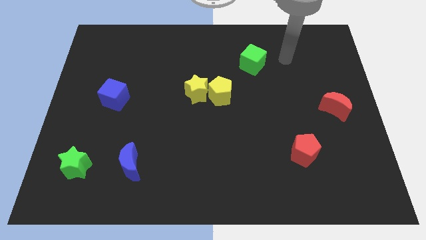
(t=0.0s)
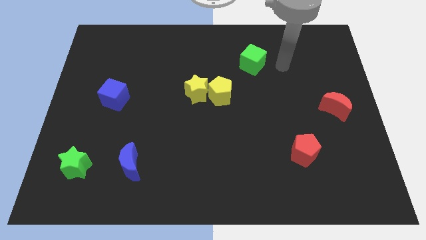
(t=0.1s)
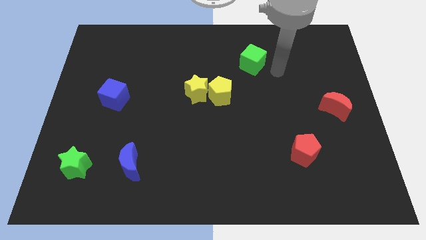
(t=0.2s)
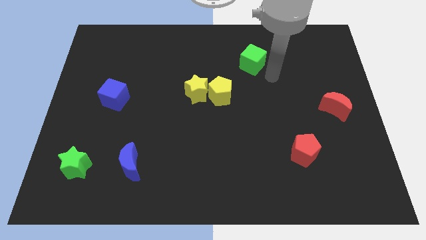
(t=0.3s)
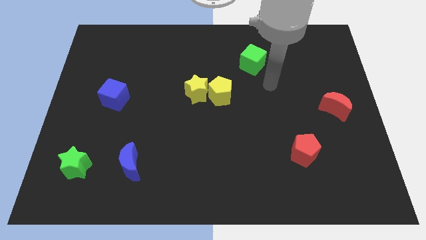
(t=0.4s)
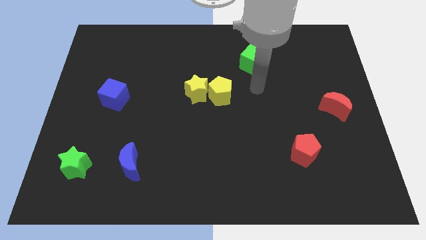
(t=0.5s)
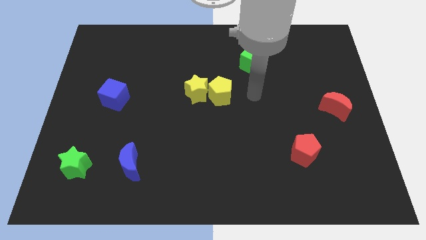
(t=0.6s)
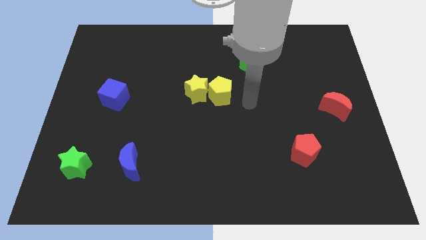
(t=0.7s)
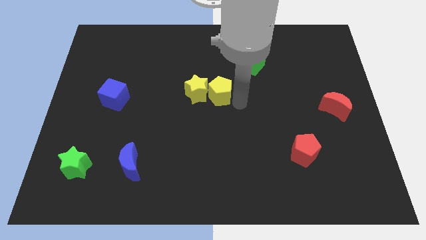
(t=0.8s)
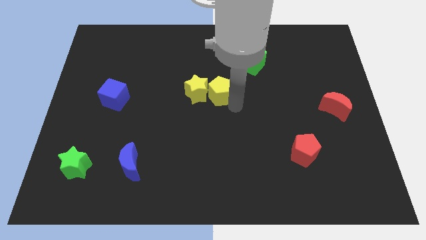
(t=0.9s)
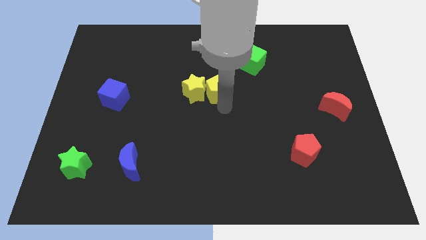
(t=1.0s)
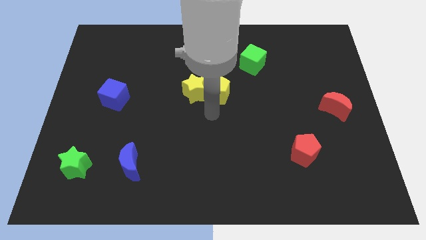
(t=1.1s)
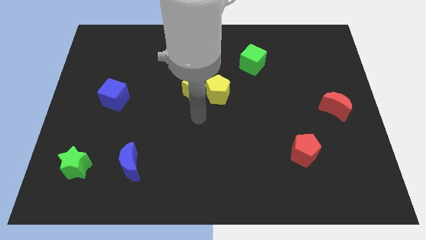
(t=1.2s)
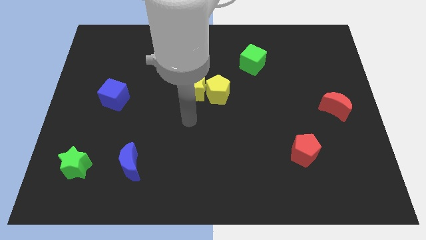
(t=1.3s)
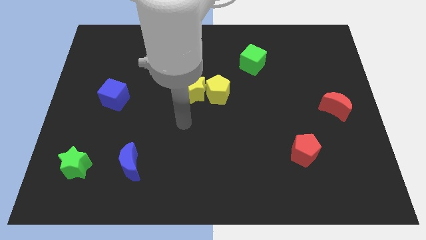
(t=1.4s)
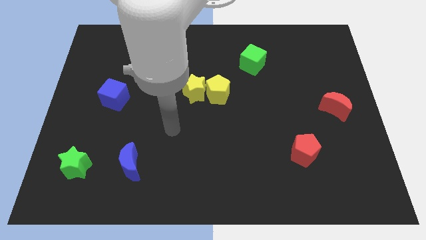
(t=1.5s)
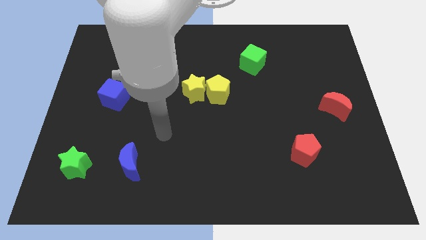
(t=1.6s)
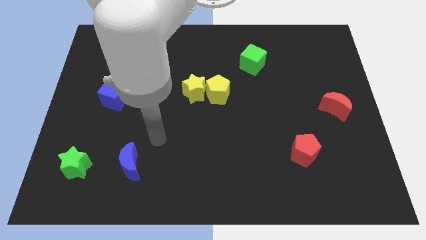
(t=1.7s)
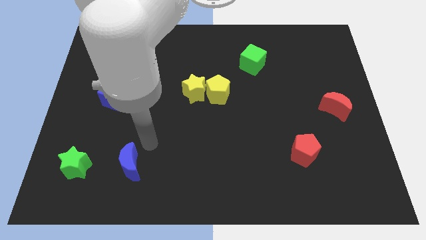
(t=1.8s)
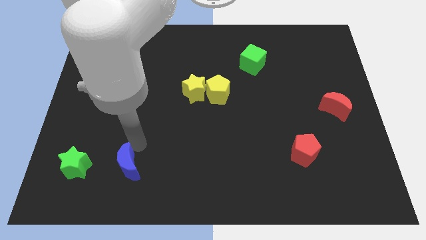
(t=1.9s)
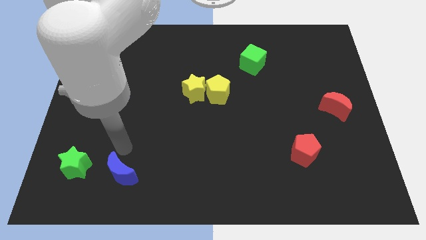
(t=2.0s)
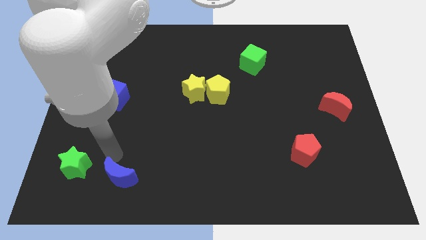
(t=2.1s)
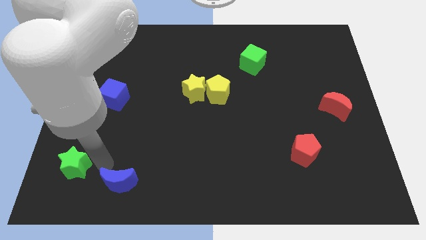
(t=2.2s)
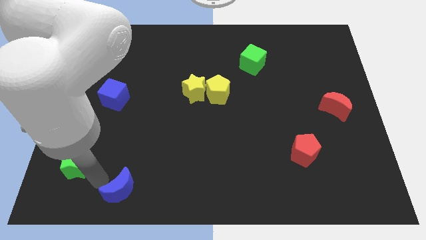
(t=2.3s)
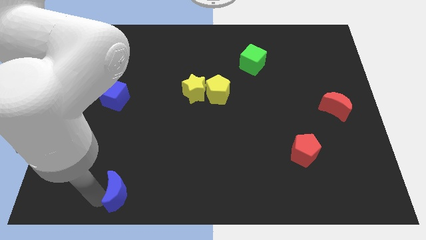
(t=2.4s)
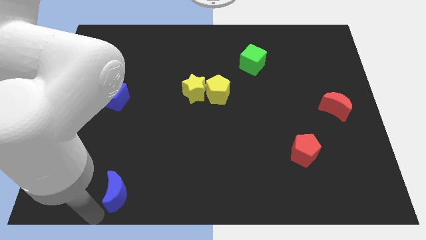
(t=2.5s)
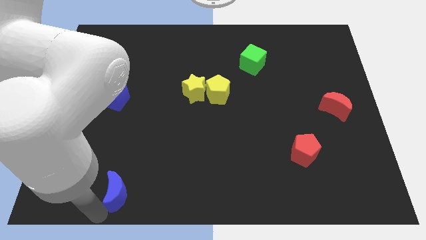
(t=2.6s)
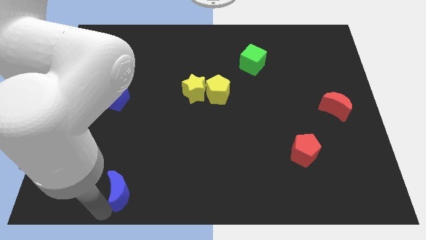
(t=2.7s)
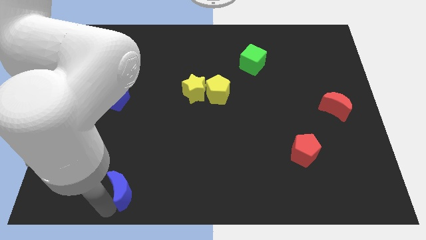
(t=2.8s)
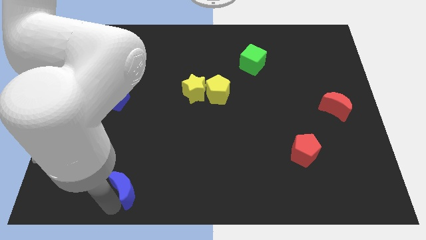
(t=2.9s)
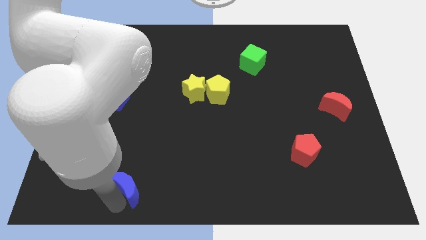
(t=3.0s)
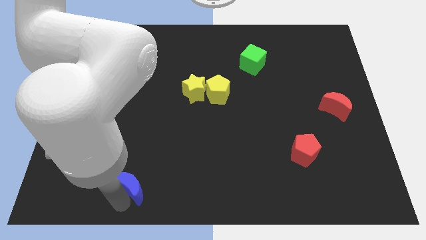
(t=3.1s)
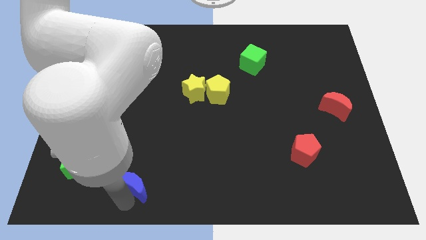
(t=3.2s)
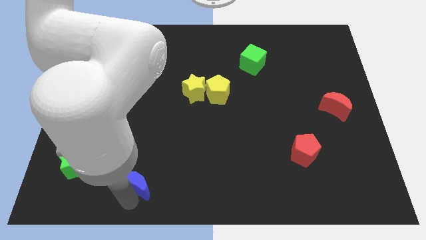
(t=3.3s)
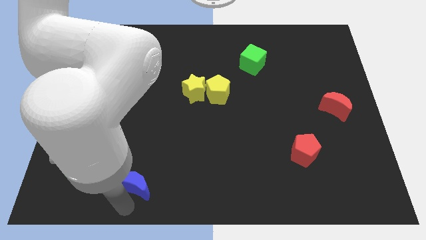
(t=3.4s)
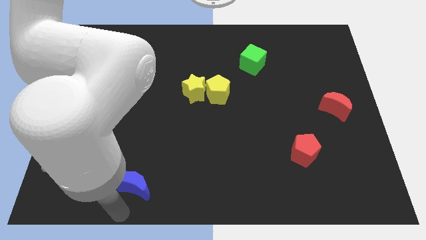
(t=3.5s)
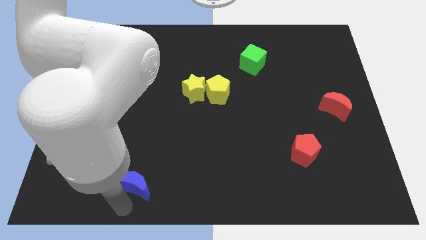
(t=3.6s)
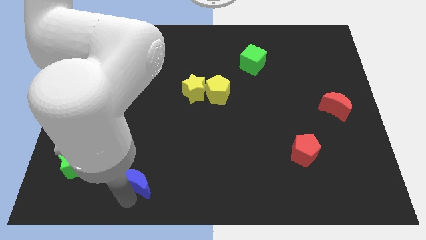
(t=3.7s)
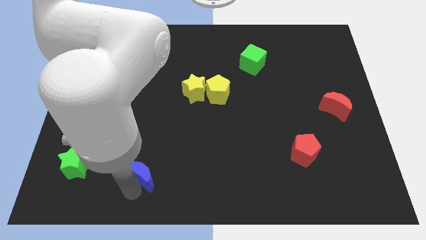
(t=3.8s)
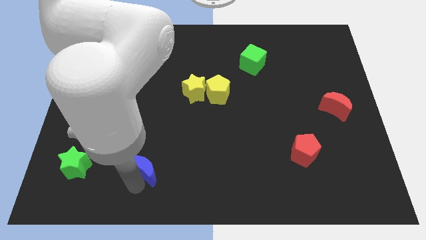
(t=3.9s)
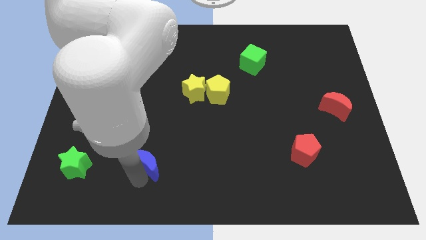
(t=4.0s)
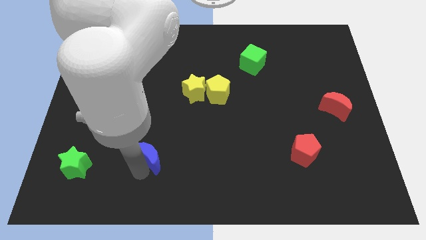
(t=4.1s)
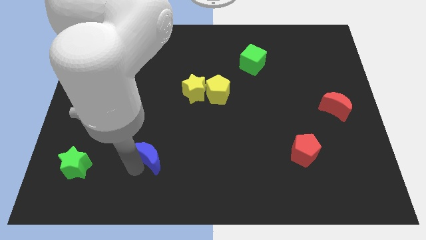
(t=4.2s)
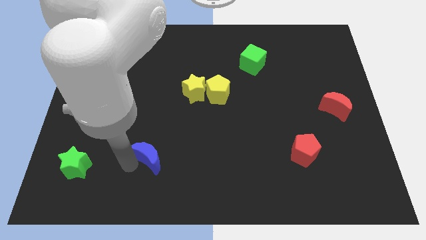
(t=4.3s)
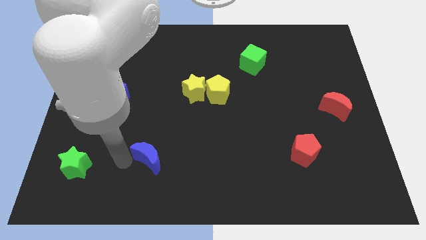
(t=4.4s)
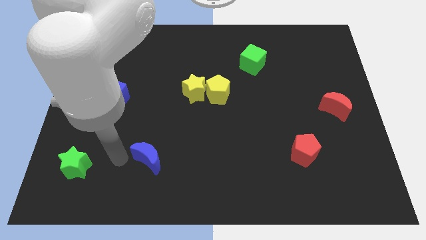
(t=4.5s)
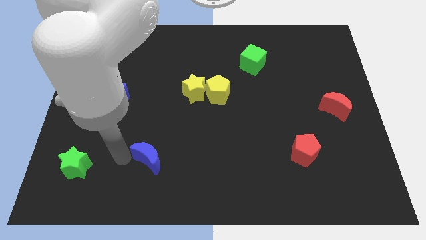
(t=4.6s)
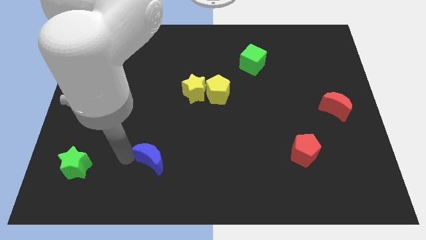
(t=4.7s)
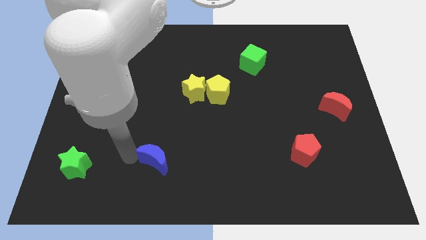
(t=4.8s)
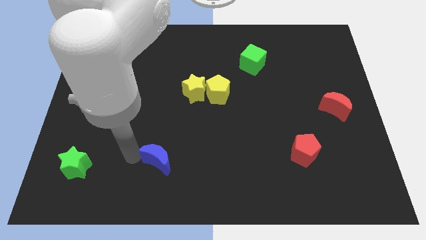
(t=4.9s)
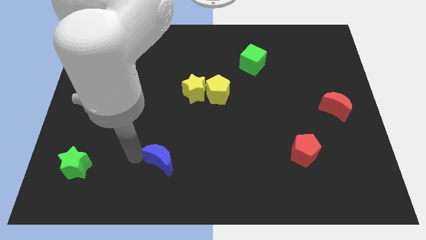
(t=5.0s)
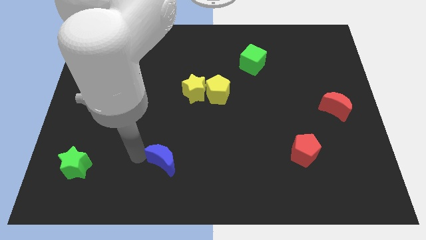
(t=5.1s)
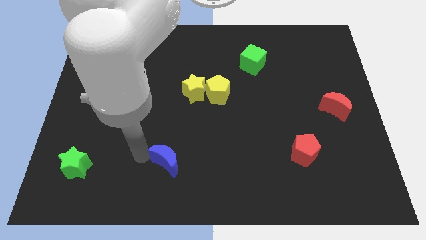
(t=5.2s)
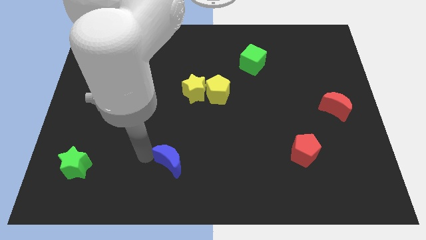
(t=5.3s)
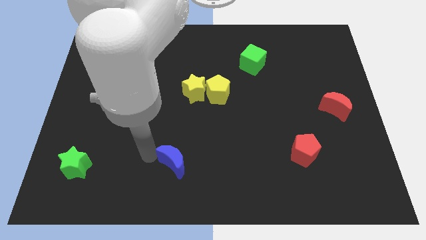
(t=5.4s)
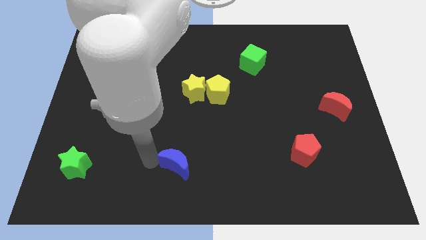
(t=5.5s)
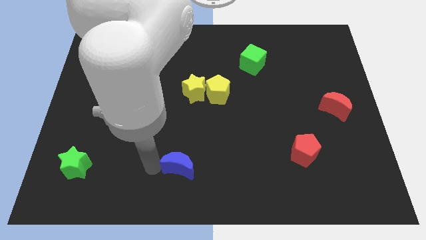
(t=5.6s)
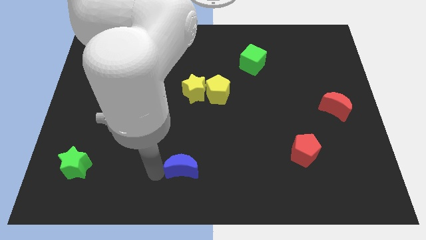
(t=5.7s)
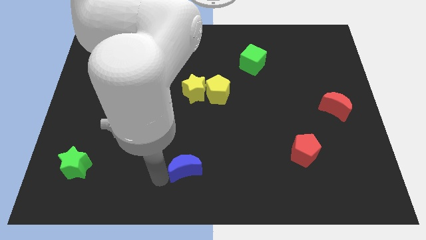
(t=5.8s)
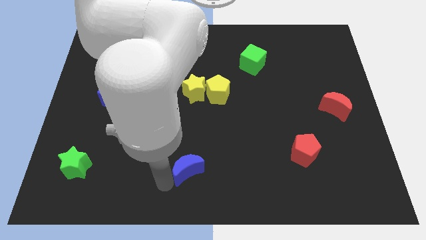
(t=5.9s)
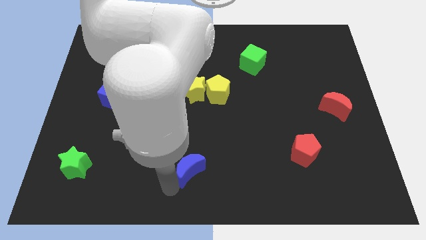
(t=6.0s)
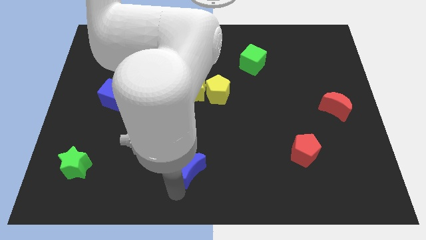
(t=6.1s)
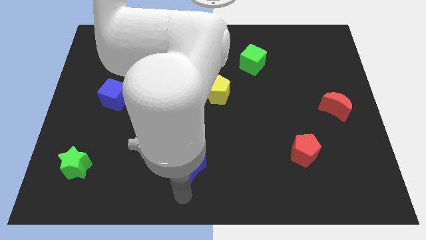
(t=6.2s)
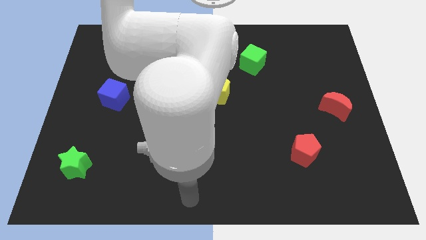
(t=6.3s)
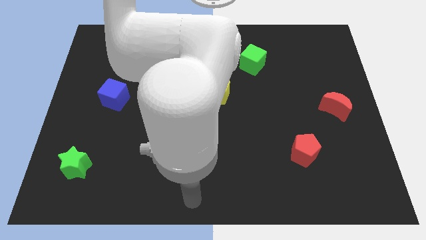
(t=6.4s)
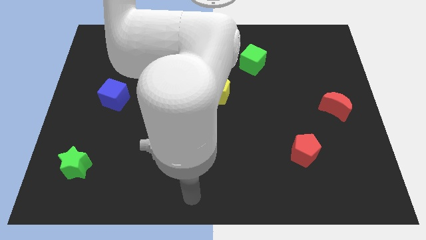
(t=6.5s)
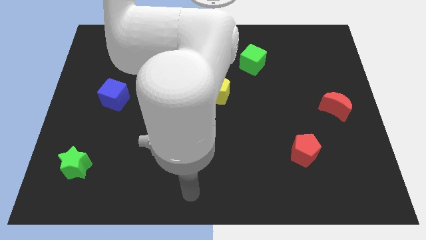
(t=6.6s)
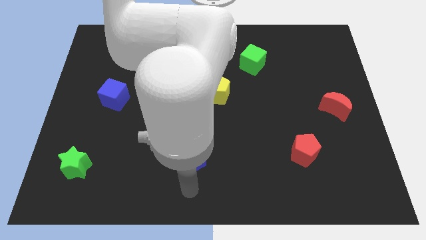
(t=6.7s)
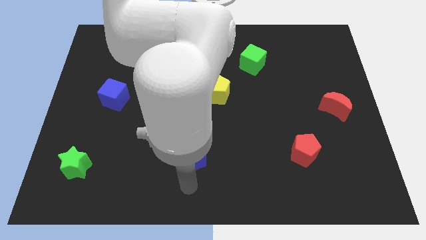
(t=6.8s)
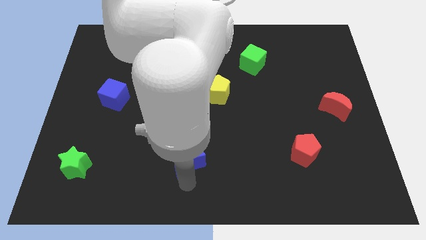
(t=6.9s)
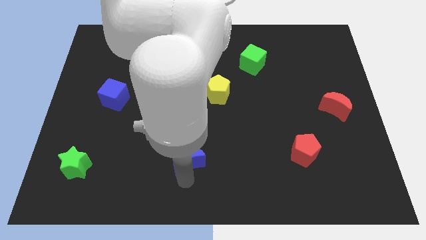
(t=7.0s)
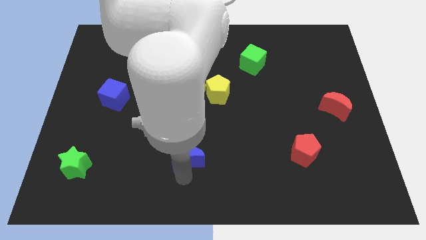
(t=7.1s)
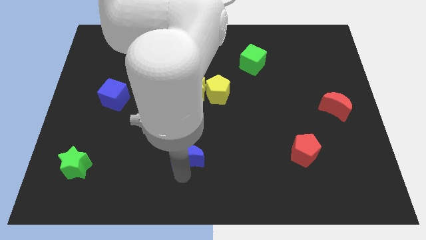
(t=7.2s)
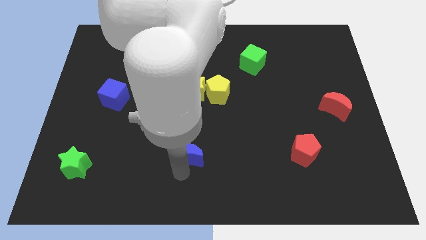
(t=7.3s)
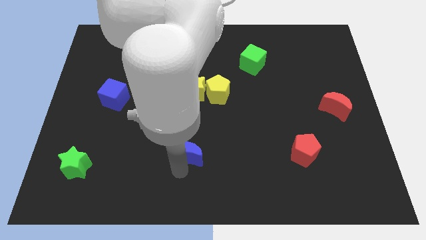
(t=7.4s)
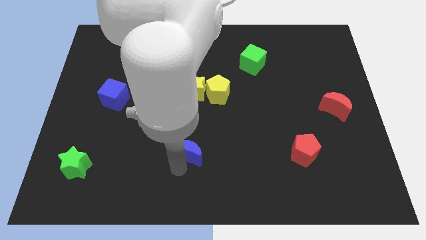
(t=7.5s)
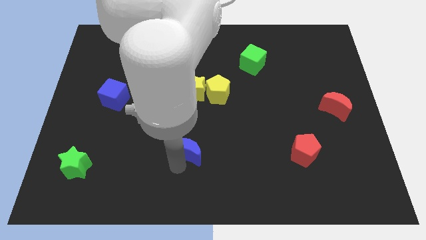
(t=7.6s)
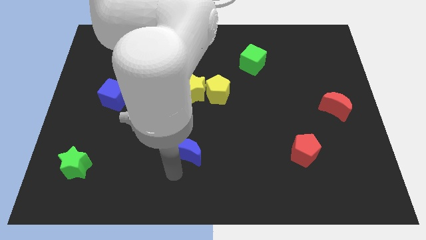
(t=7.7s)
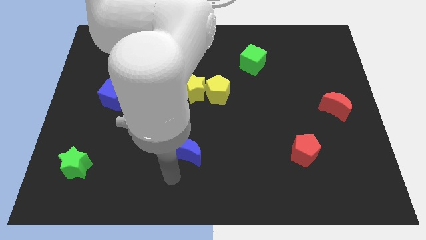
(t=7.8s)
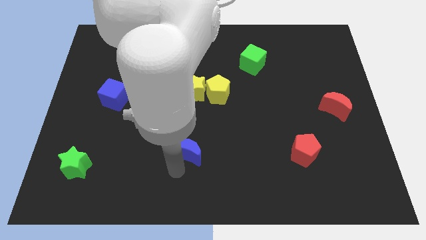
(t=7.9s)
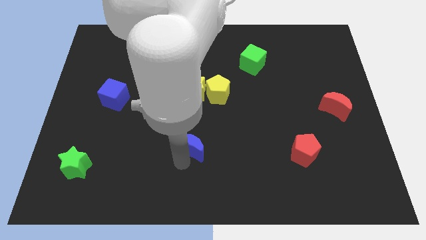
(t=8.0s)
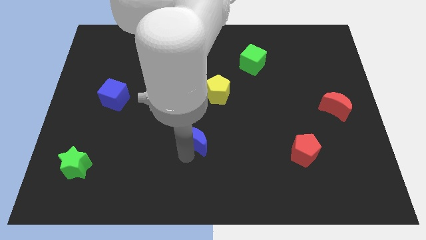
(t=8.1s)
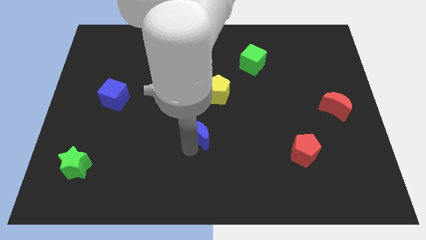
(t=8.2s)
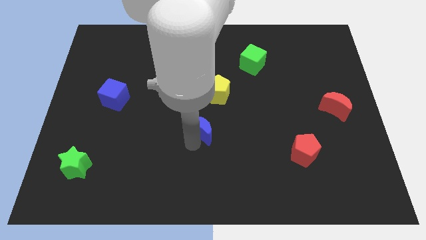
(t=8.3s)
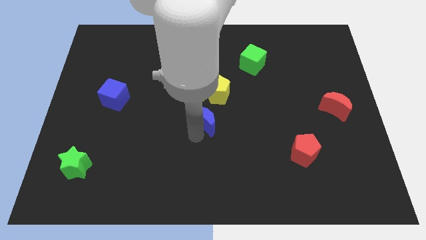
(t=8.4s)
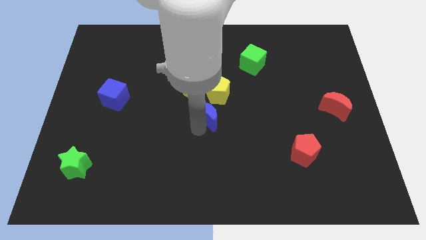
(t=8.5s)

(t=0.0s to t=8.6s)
move the blue moon up and then to the right
